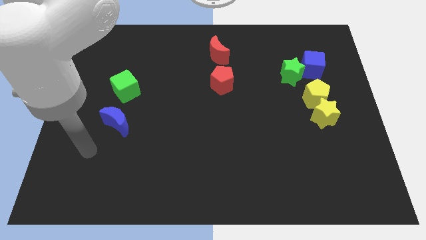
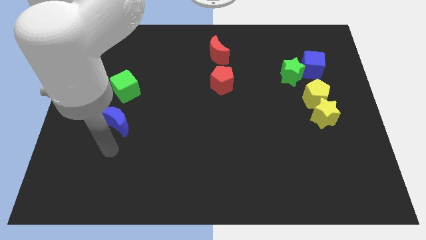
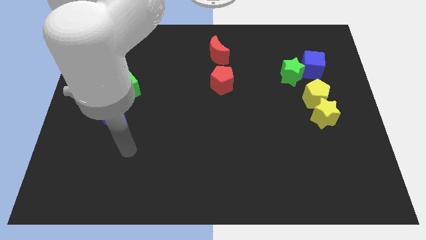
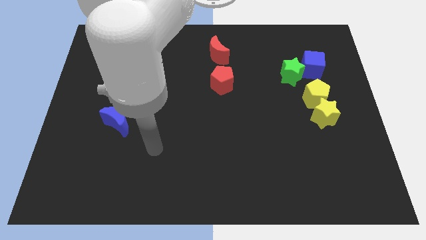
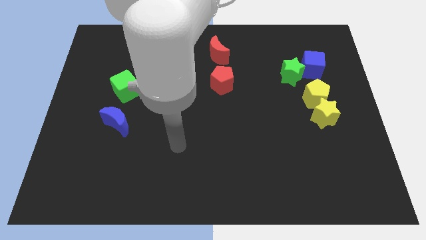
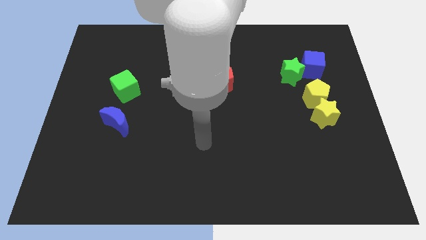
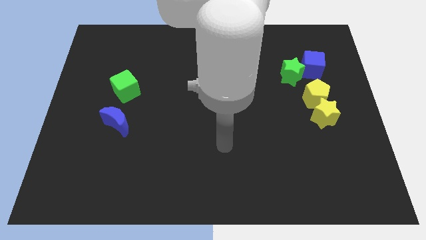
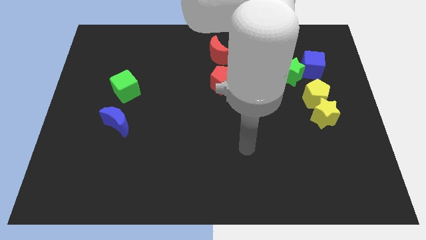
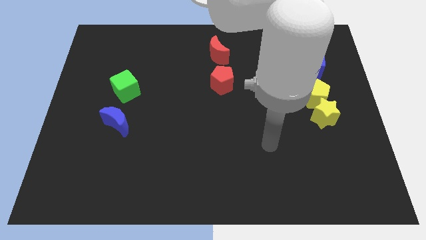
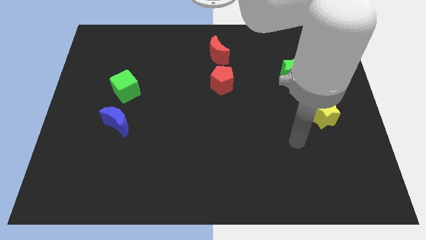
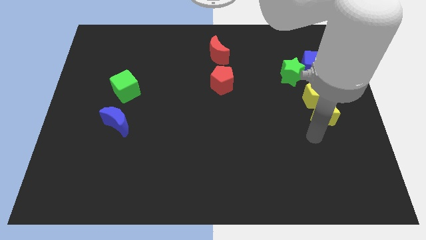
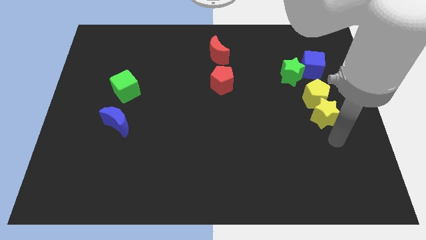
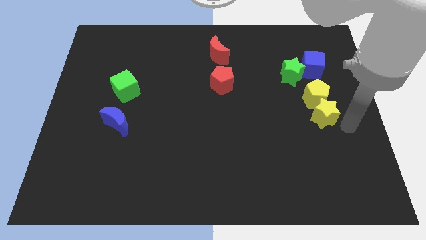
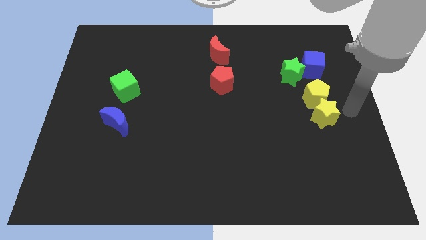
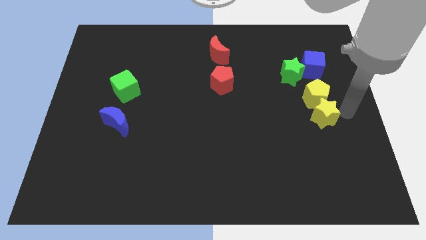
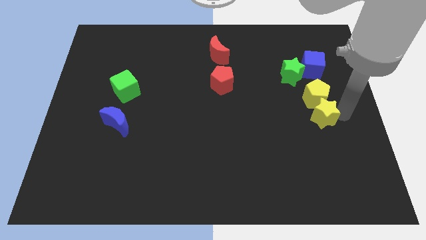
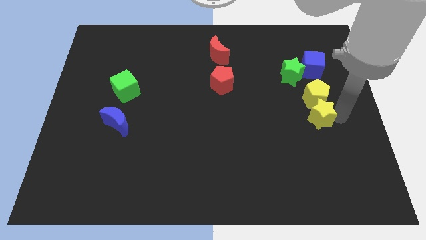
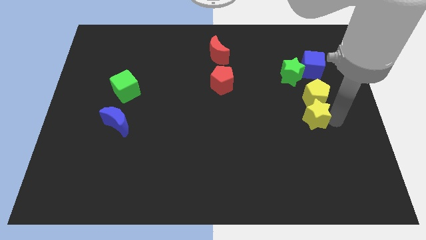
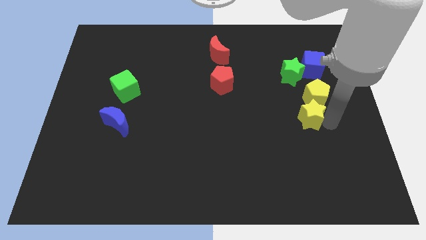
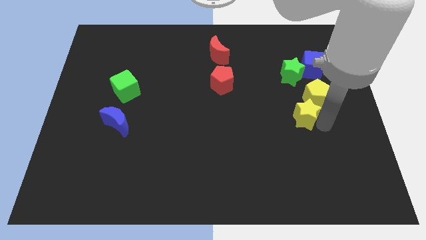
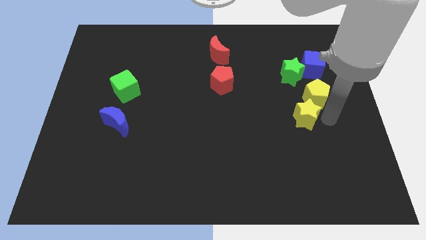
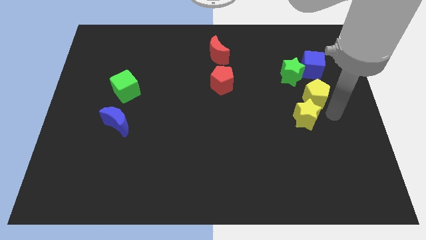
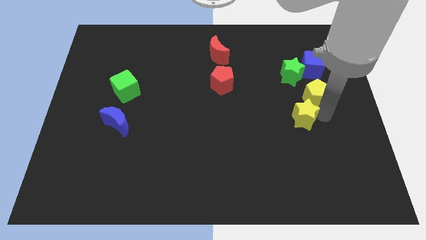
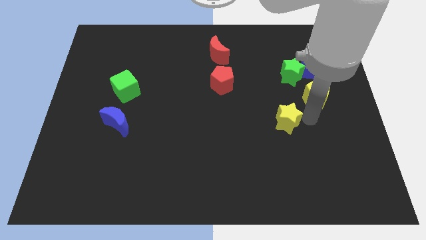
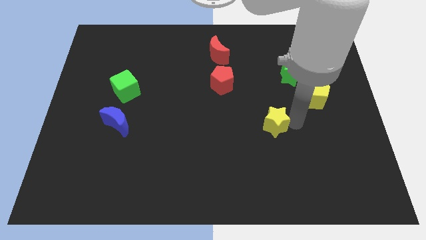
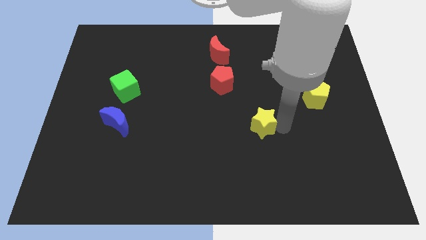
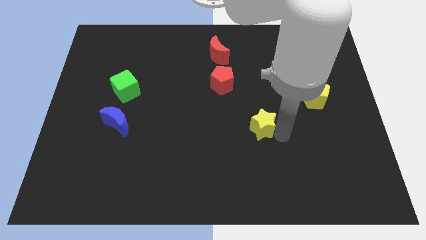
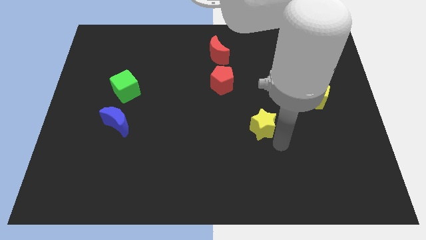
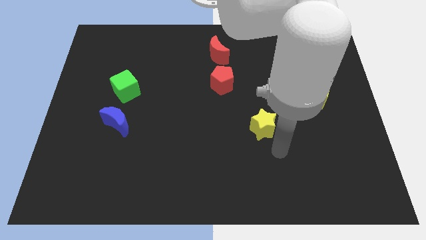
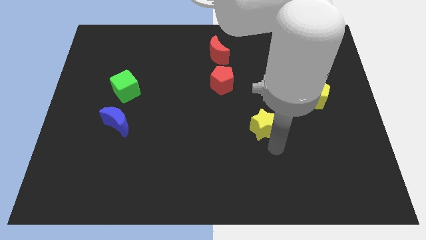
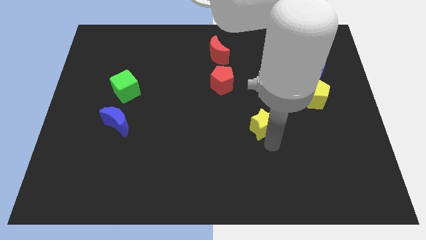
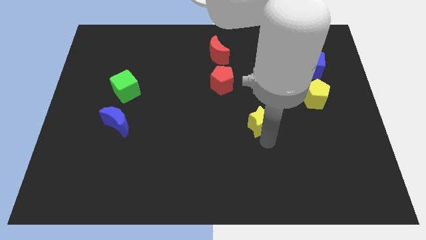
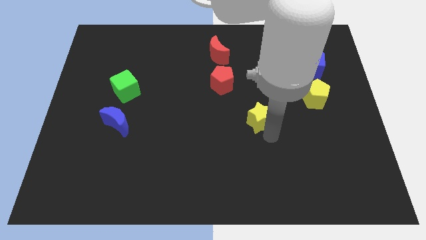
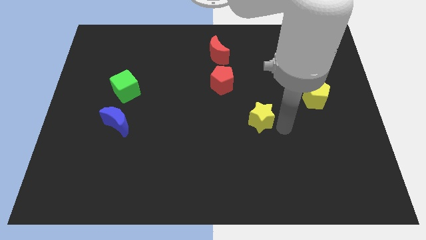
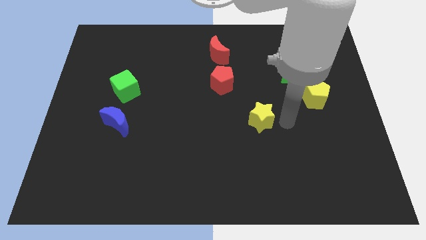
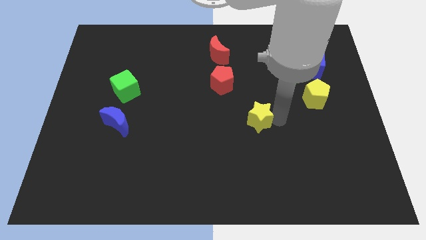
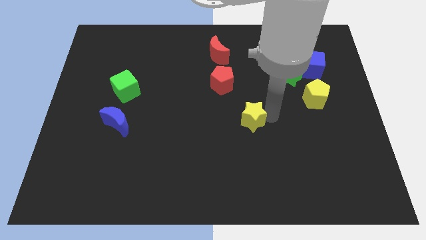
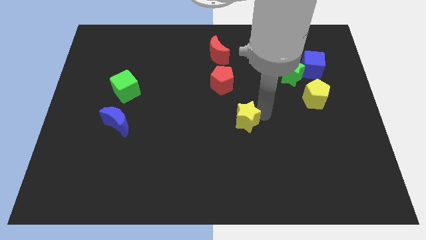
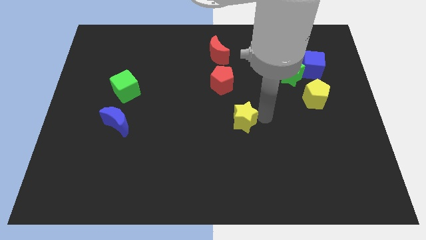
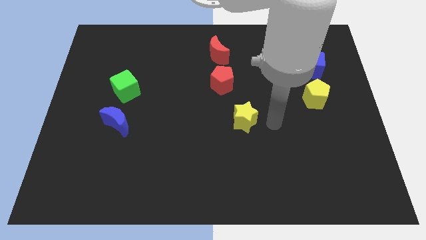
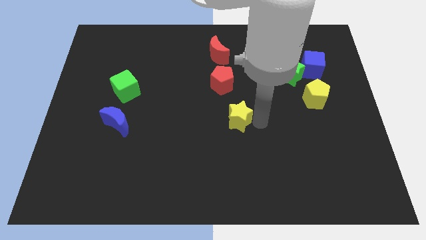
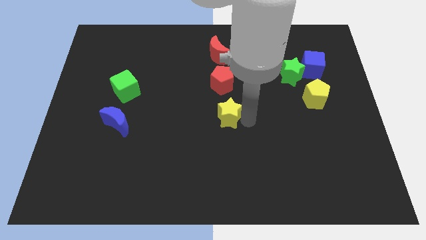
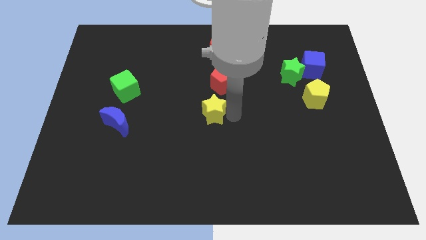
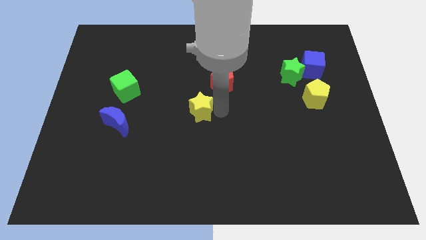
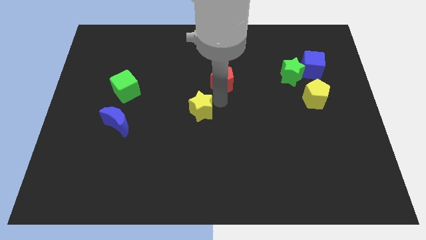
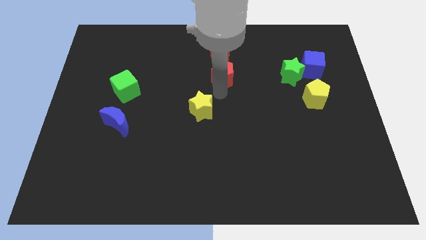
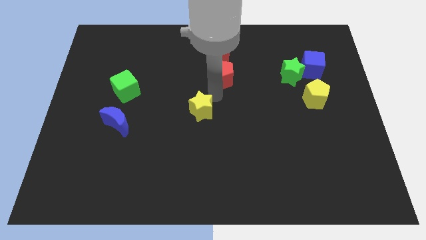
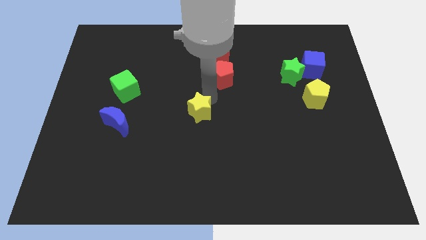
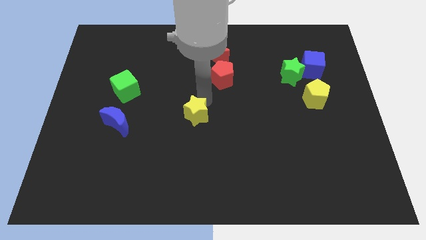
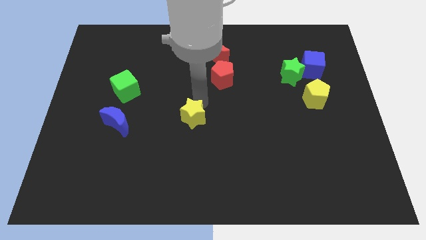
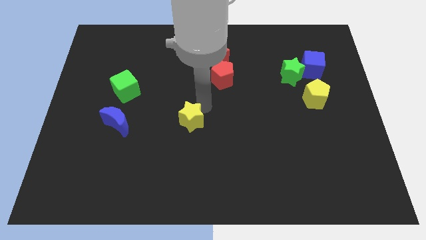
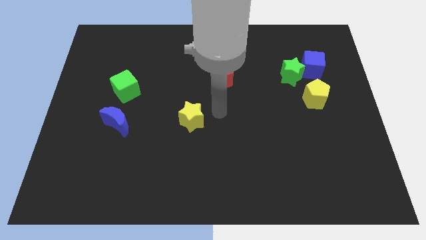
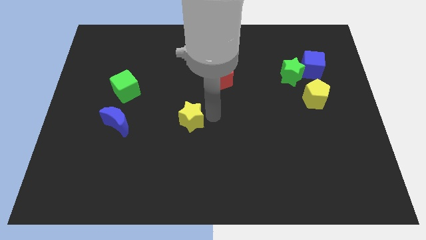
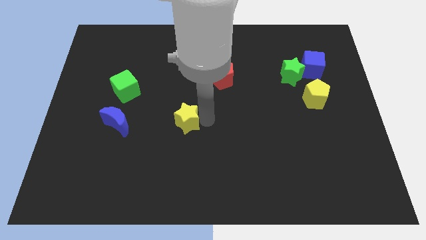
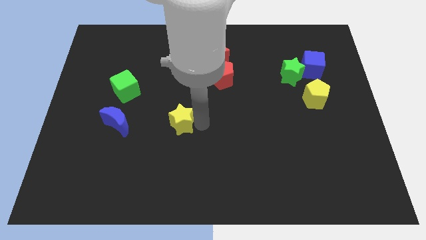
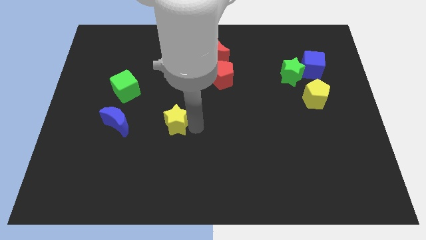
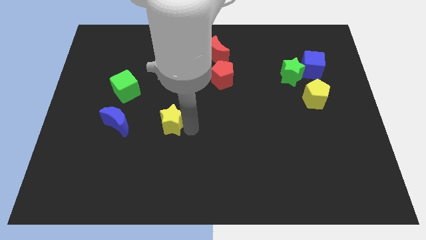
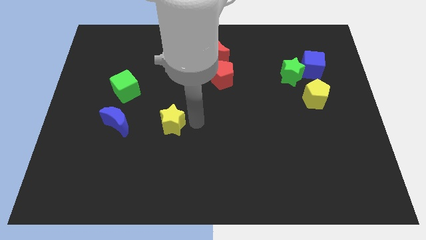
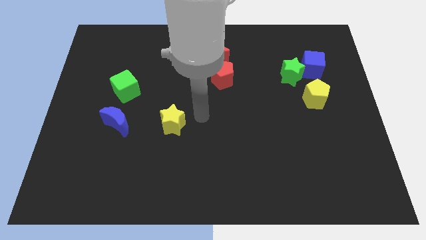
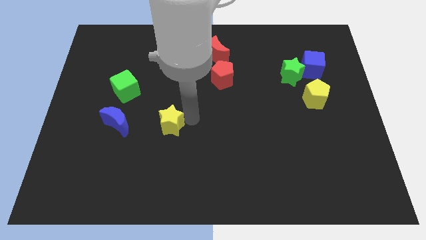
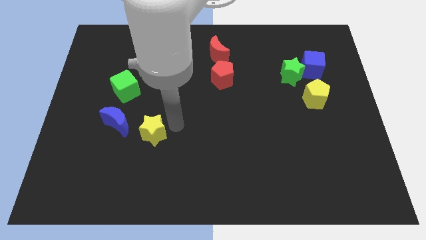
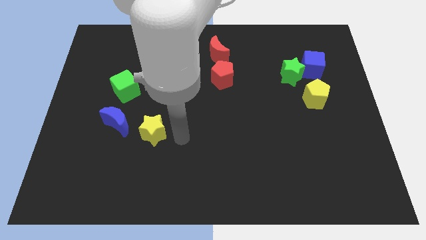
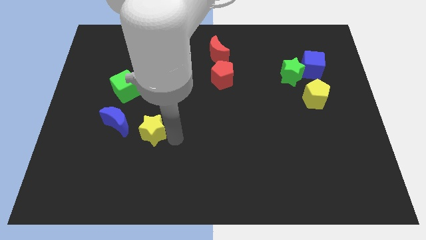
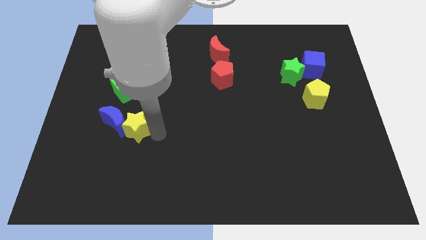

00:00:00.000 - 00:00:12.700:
push the yellow star close to the blue moon

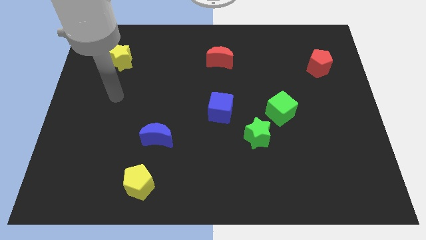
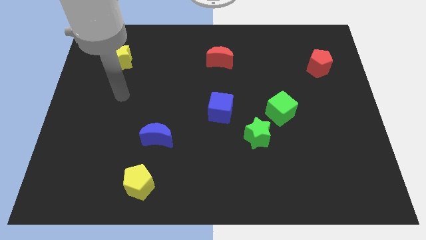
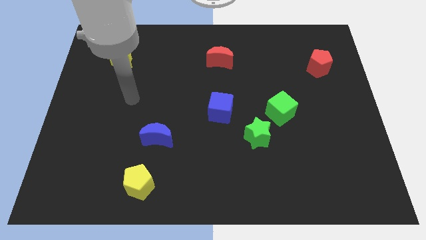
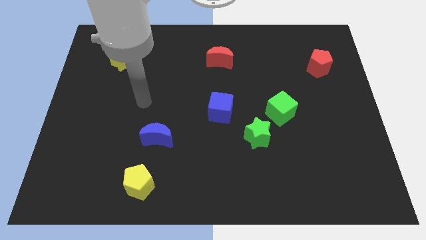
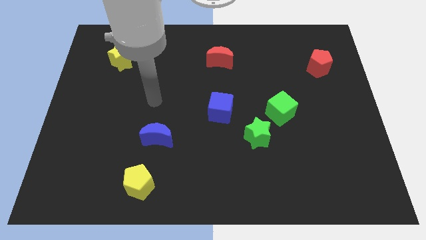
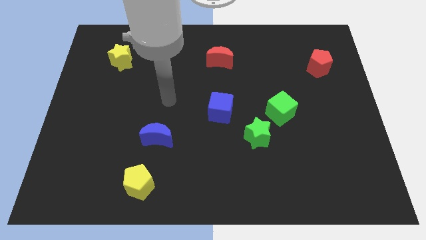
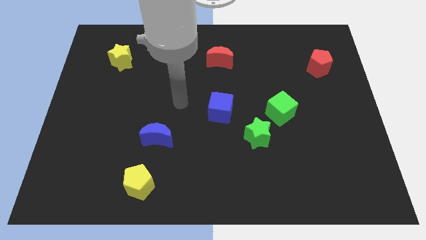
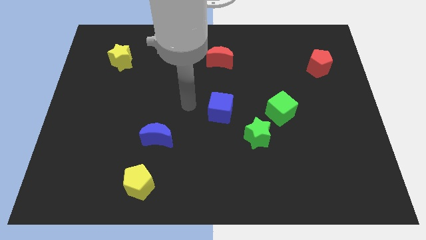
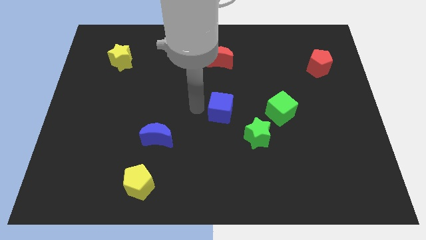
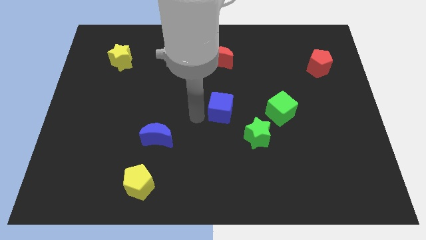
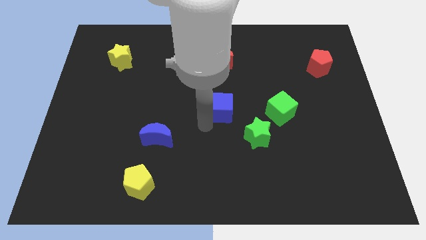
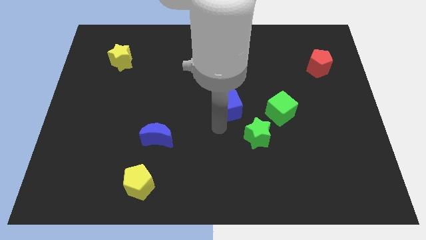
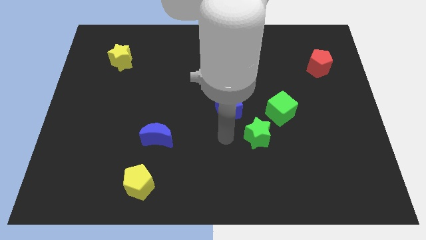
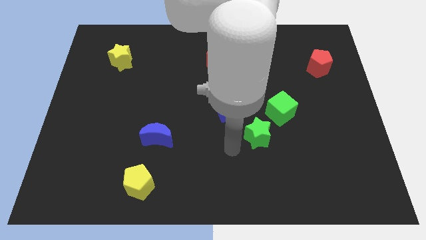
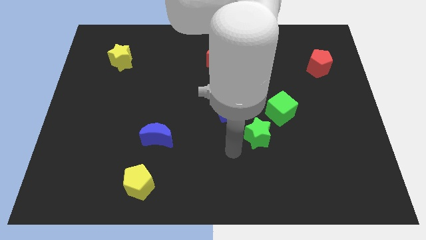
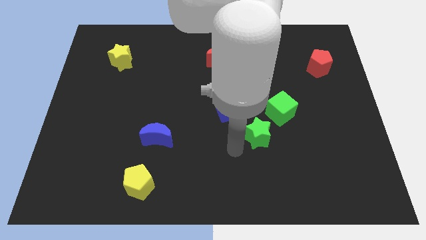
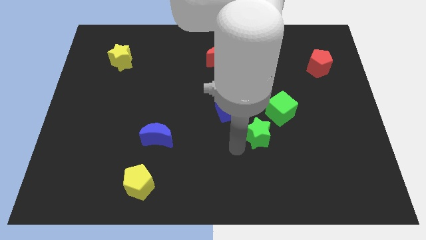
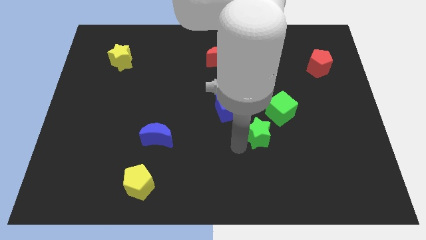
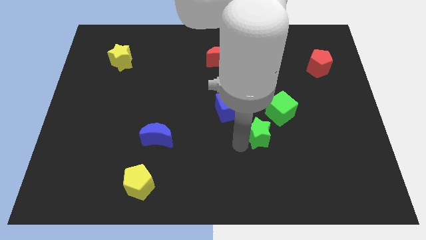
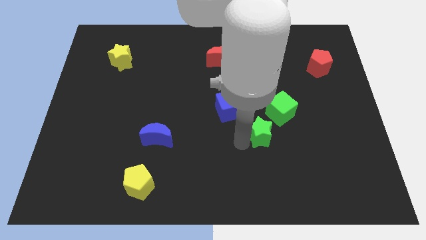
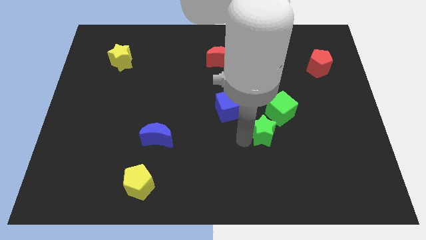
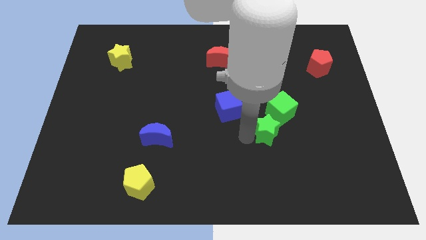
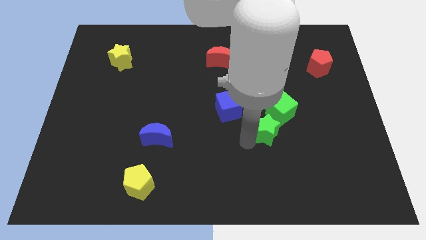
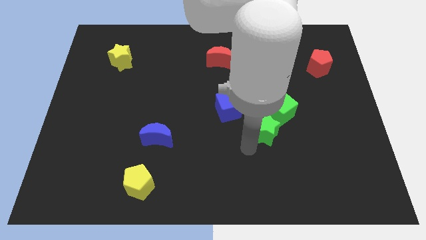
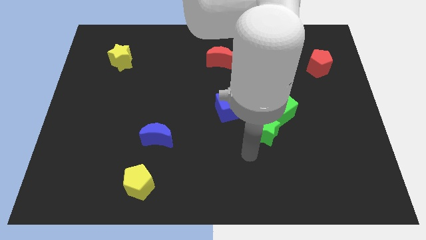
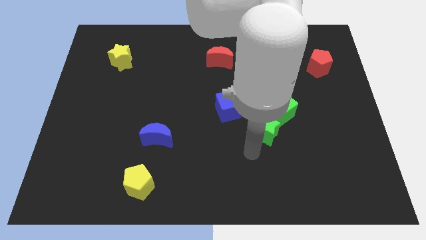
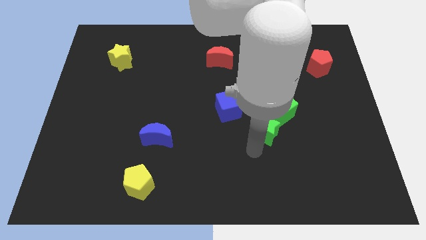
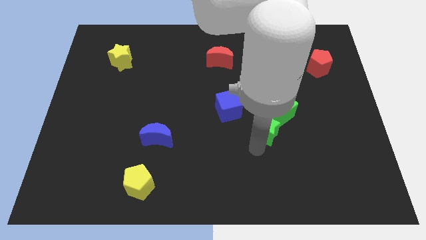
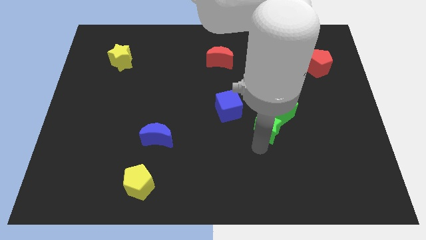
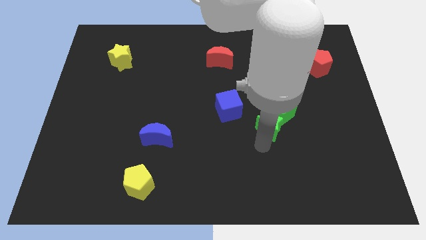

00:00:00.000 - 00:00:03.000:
slide the green star to the green cube
